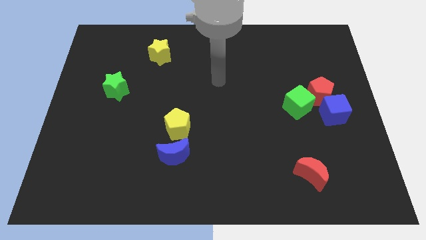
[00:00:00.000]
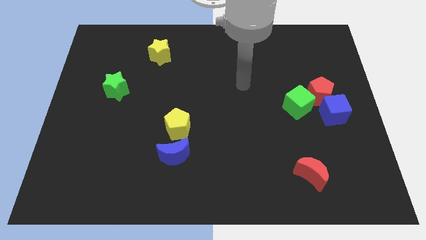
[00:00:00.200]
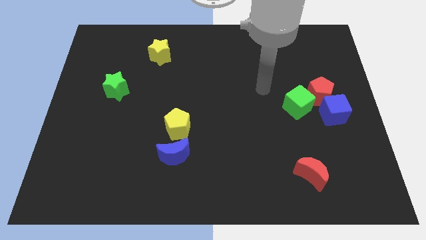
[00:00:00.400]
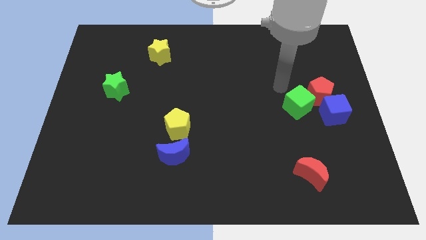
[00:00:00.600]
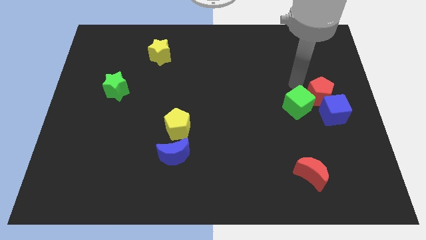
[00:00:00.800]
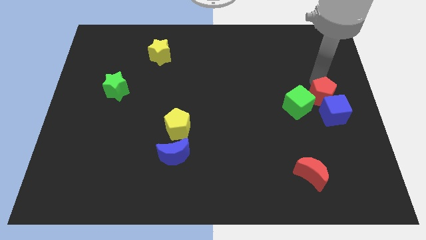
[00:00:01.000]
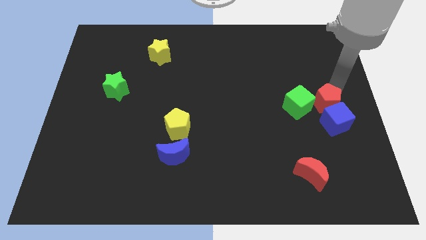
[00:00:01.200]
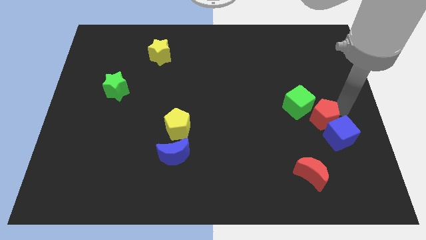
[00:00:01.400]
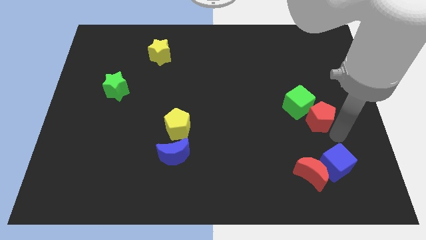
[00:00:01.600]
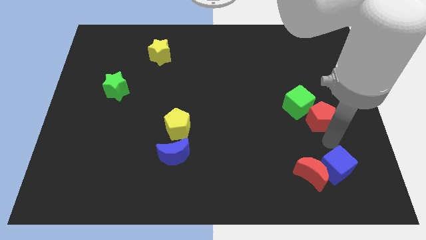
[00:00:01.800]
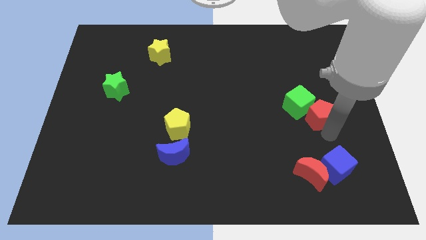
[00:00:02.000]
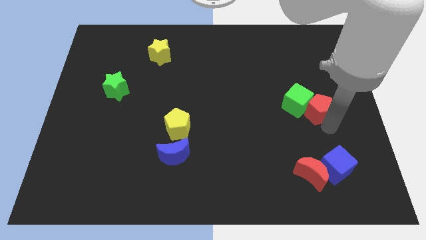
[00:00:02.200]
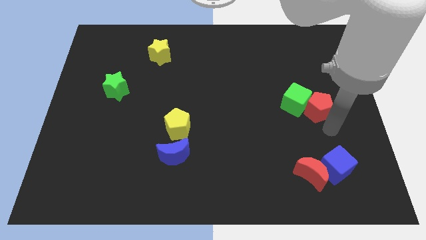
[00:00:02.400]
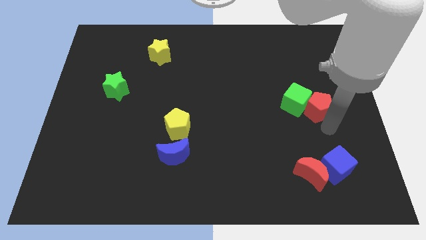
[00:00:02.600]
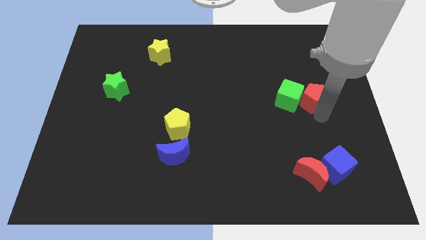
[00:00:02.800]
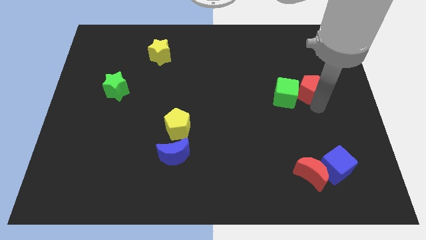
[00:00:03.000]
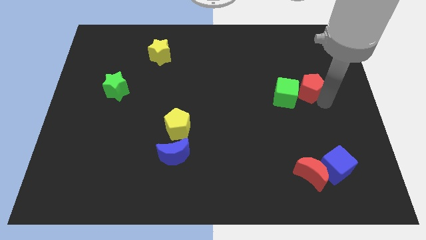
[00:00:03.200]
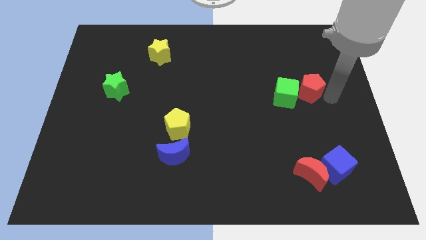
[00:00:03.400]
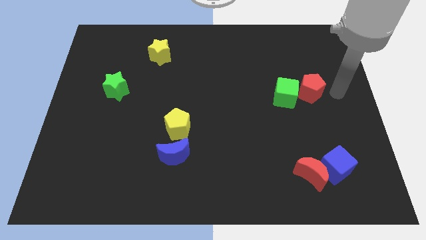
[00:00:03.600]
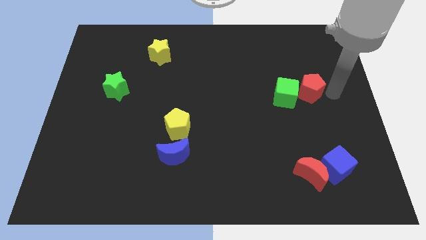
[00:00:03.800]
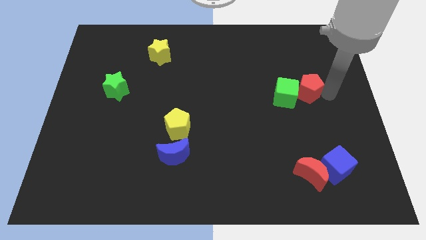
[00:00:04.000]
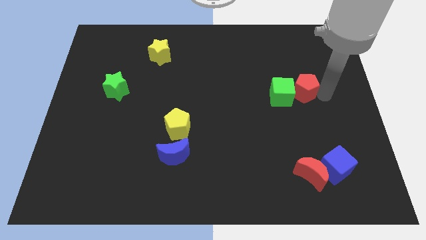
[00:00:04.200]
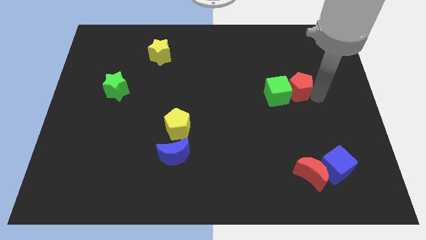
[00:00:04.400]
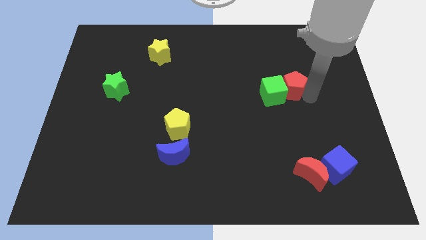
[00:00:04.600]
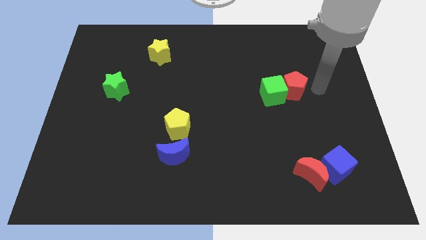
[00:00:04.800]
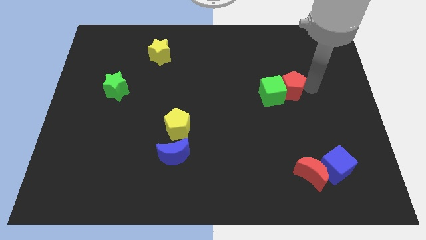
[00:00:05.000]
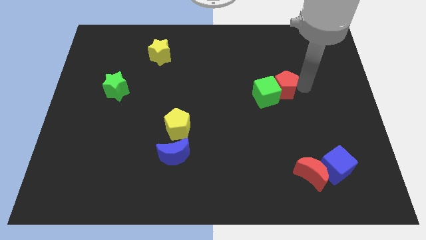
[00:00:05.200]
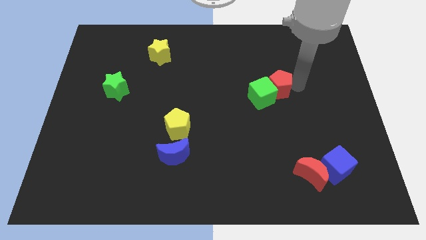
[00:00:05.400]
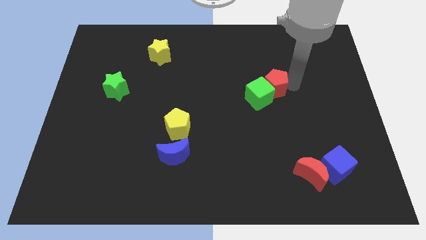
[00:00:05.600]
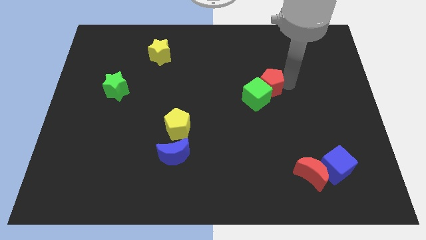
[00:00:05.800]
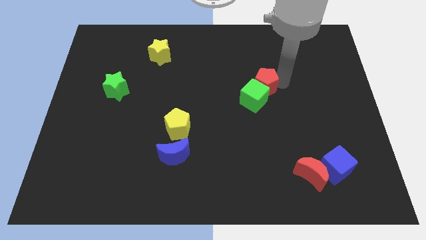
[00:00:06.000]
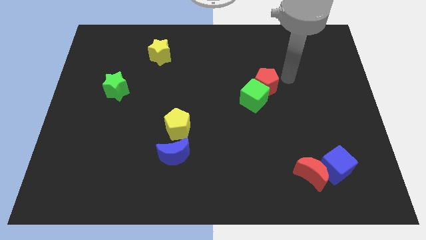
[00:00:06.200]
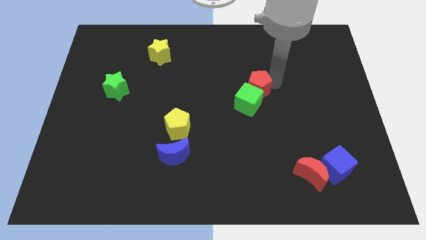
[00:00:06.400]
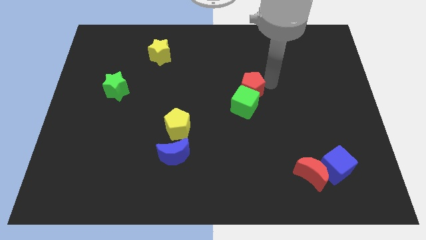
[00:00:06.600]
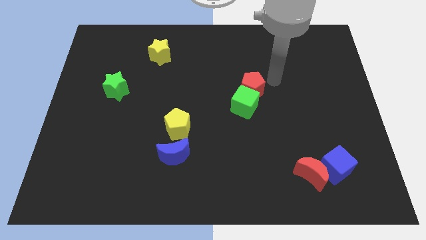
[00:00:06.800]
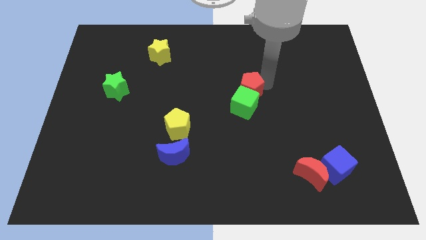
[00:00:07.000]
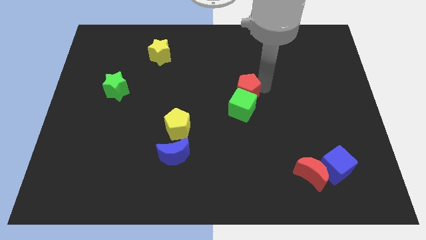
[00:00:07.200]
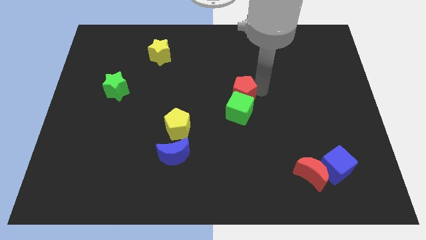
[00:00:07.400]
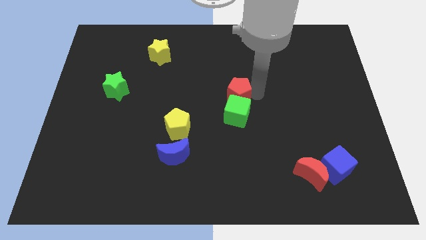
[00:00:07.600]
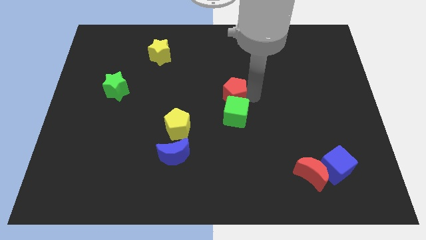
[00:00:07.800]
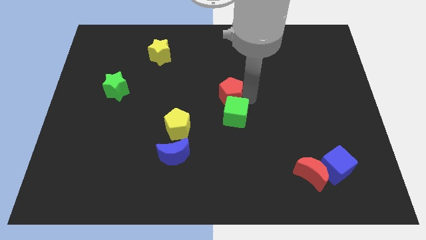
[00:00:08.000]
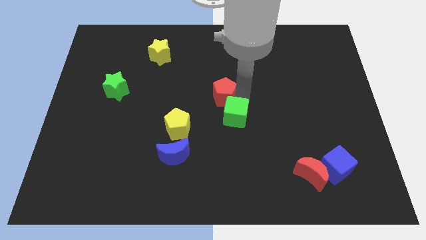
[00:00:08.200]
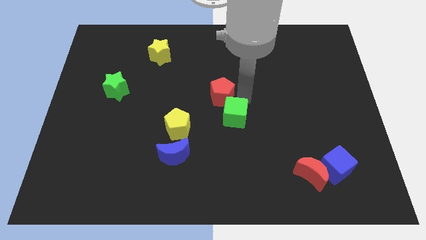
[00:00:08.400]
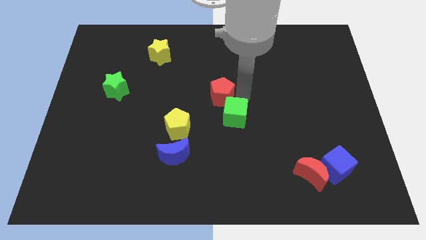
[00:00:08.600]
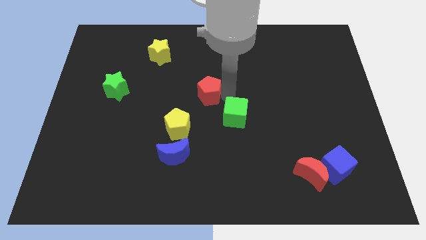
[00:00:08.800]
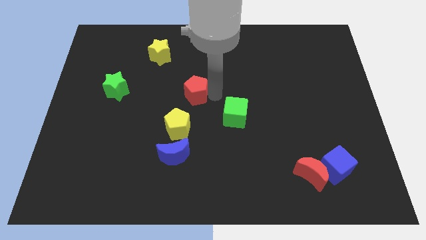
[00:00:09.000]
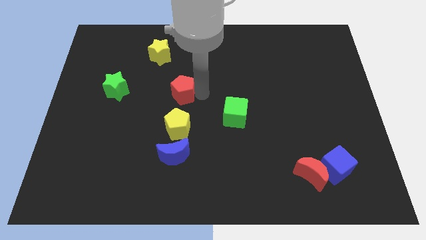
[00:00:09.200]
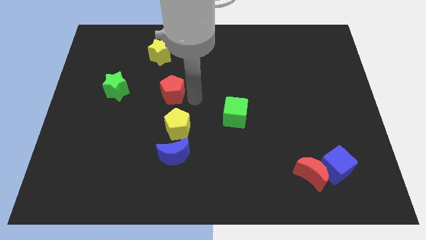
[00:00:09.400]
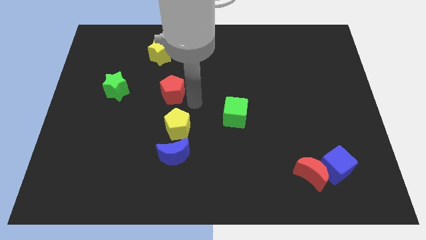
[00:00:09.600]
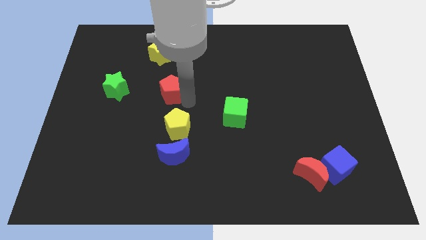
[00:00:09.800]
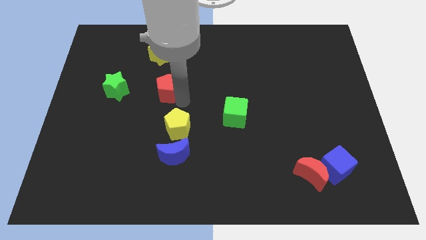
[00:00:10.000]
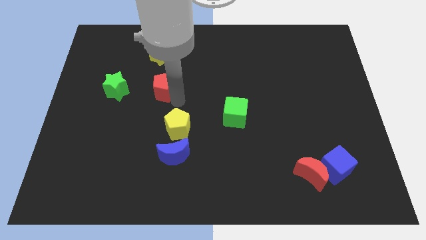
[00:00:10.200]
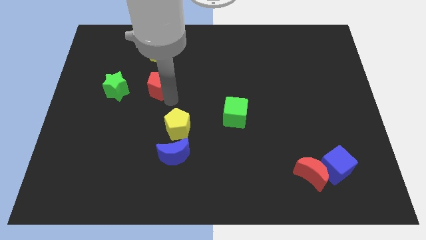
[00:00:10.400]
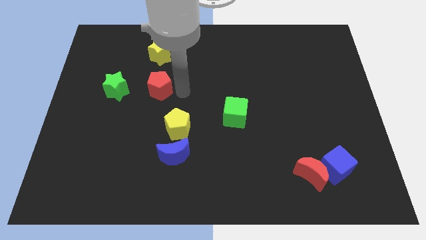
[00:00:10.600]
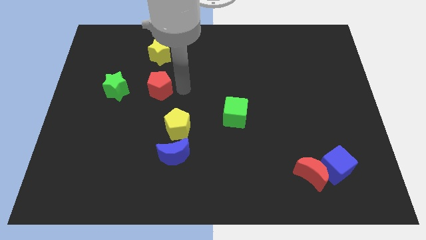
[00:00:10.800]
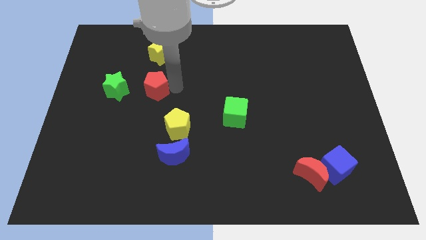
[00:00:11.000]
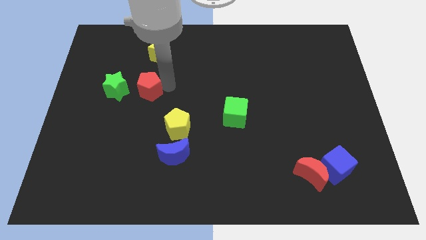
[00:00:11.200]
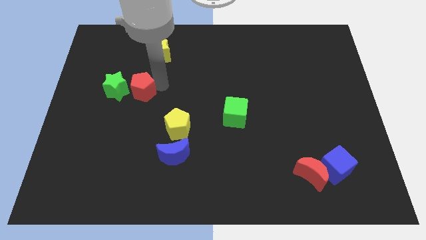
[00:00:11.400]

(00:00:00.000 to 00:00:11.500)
slide the red pentagon next to the green star

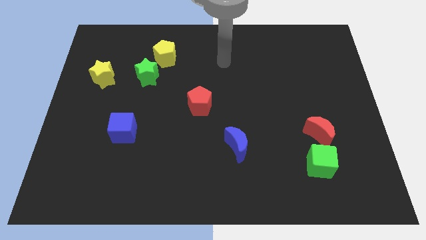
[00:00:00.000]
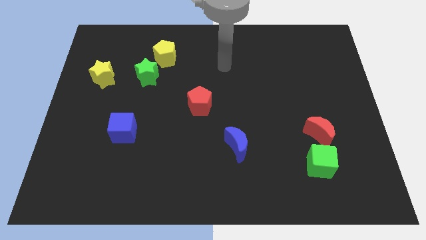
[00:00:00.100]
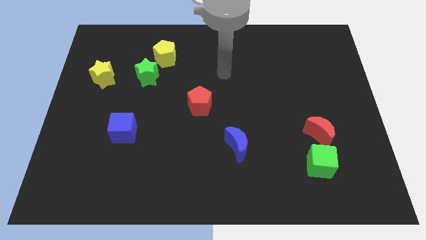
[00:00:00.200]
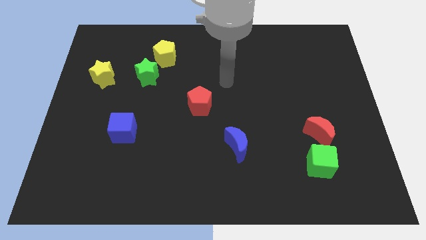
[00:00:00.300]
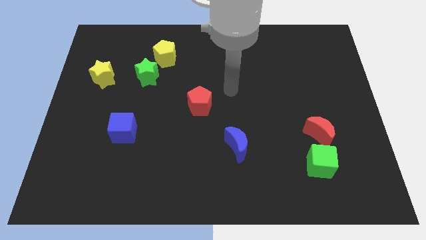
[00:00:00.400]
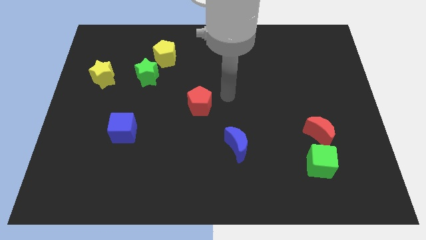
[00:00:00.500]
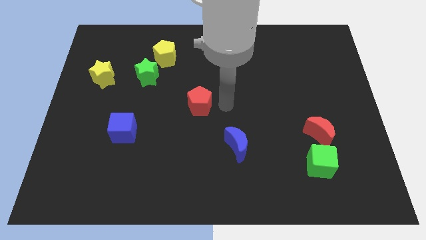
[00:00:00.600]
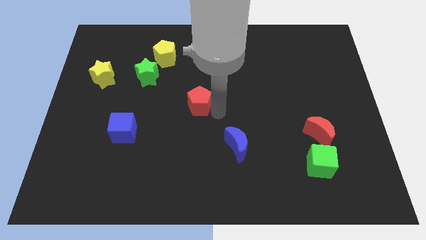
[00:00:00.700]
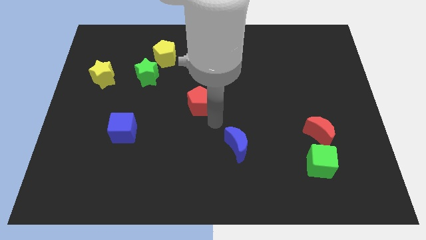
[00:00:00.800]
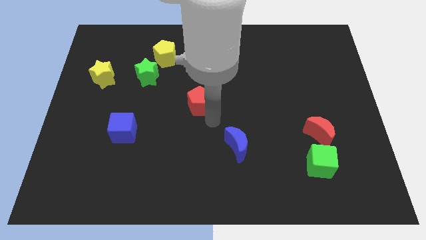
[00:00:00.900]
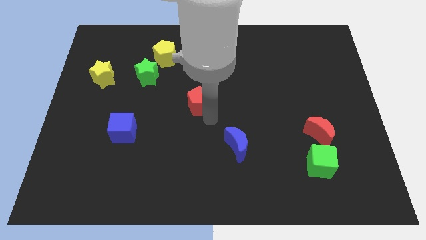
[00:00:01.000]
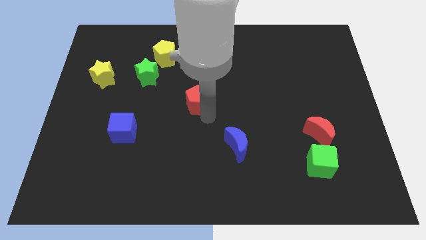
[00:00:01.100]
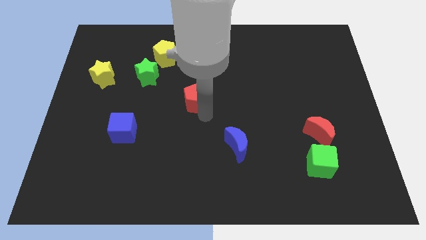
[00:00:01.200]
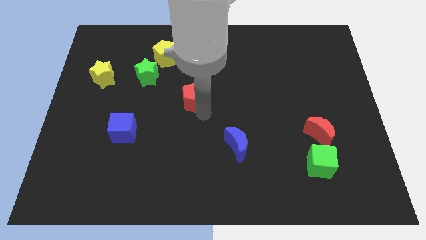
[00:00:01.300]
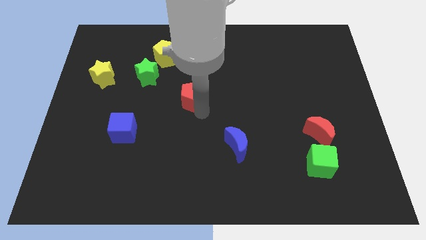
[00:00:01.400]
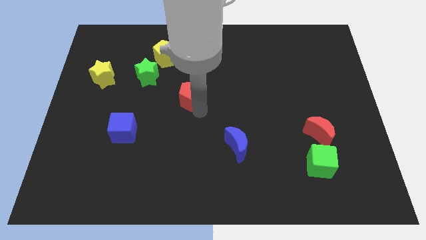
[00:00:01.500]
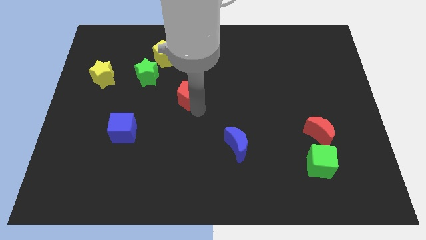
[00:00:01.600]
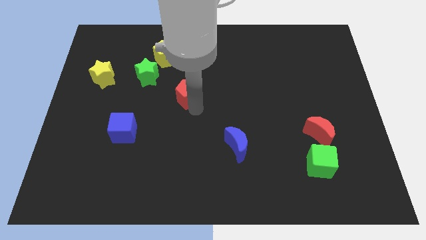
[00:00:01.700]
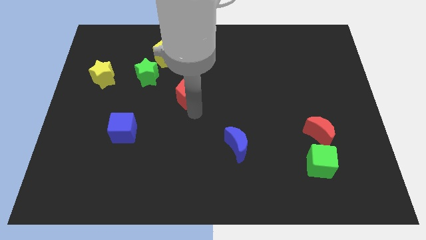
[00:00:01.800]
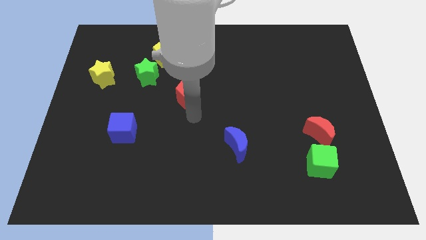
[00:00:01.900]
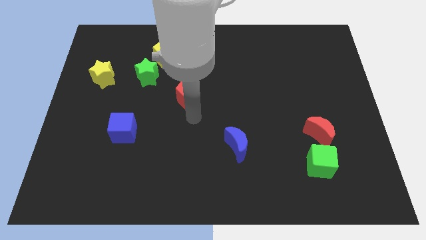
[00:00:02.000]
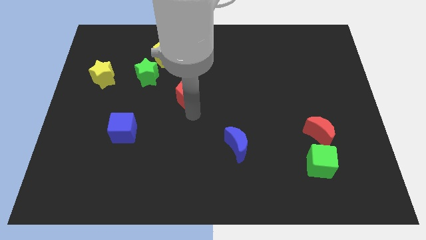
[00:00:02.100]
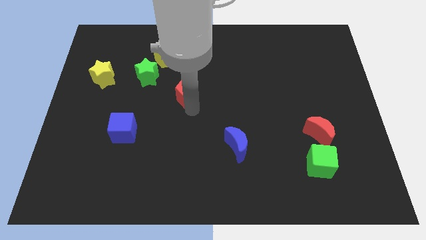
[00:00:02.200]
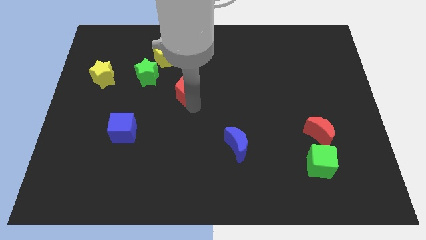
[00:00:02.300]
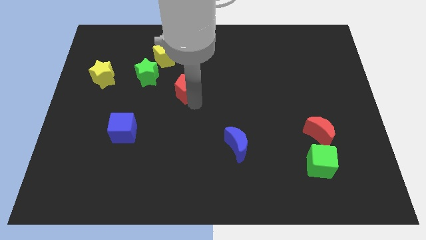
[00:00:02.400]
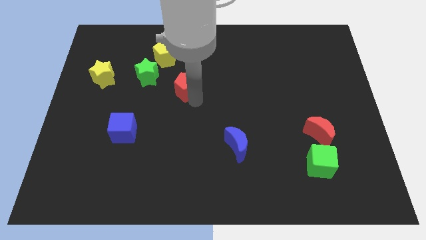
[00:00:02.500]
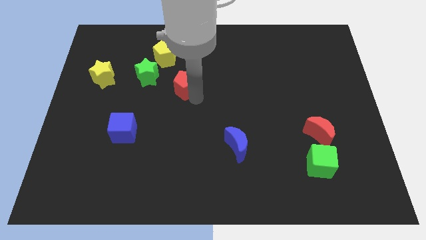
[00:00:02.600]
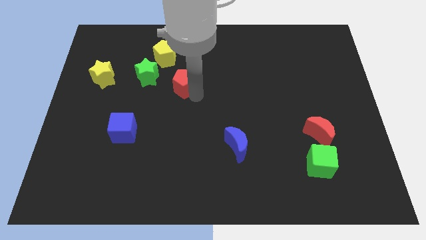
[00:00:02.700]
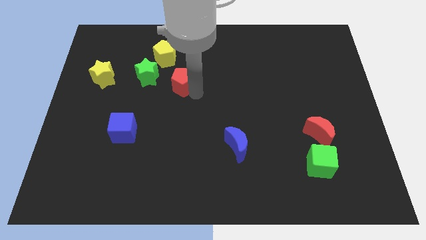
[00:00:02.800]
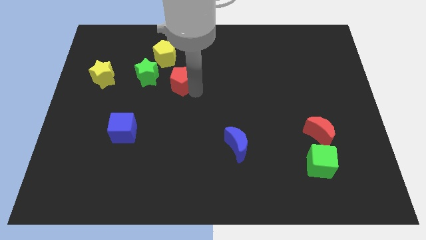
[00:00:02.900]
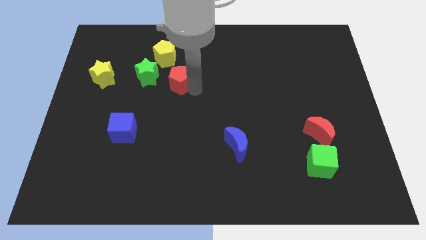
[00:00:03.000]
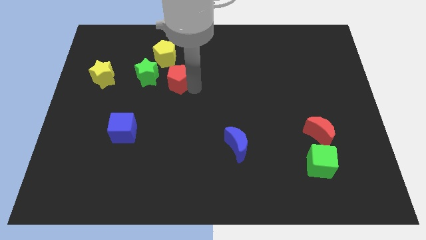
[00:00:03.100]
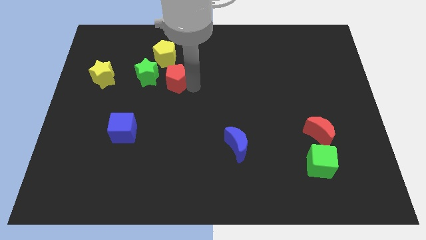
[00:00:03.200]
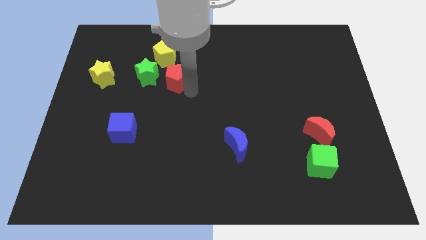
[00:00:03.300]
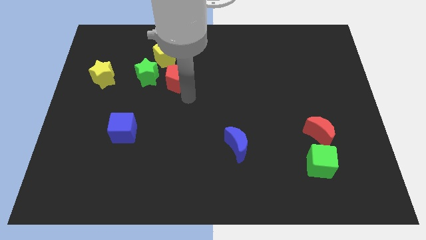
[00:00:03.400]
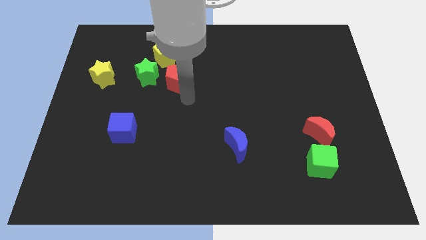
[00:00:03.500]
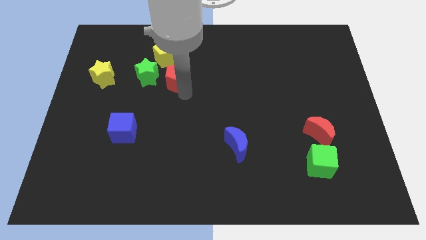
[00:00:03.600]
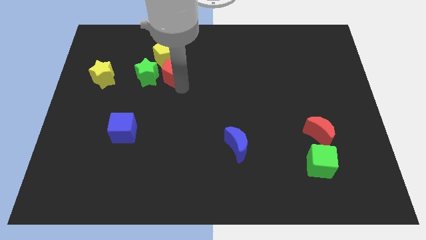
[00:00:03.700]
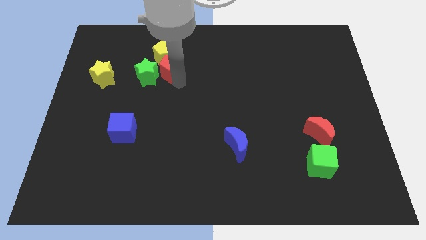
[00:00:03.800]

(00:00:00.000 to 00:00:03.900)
move the red pentagon to the yellow pentagon
